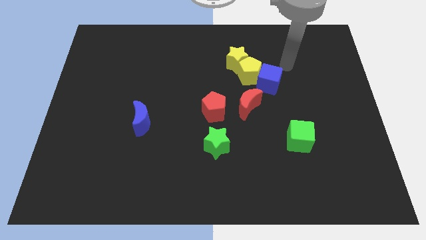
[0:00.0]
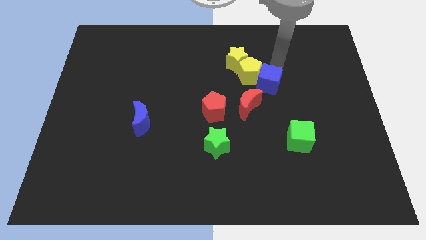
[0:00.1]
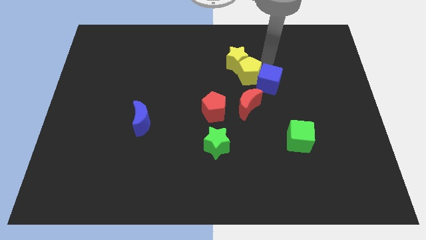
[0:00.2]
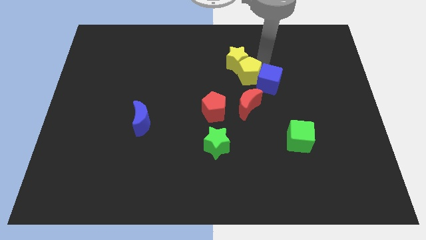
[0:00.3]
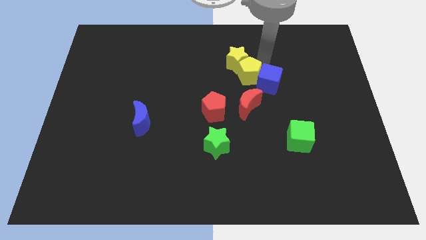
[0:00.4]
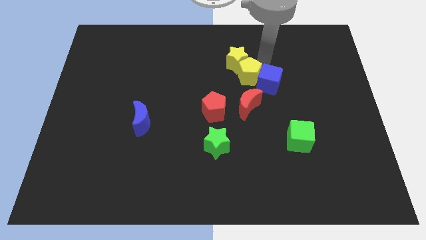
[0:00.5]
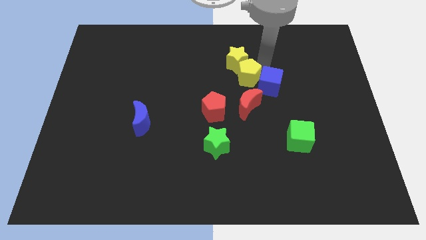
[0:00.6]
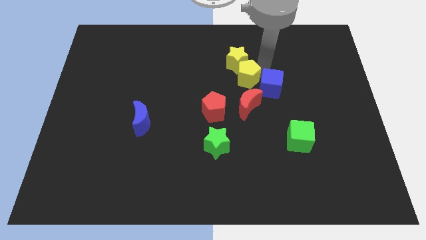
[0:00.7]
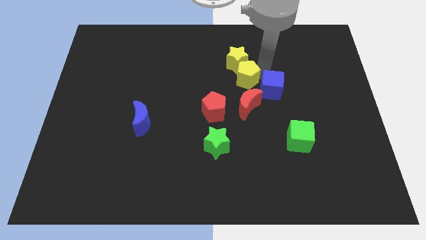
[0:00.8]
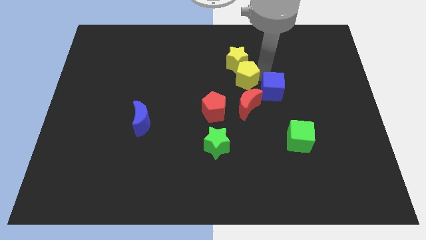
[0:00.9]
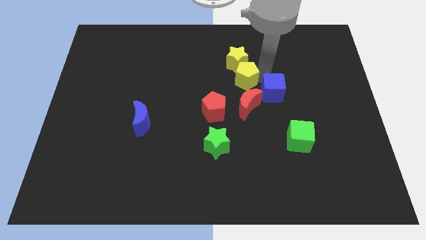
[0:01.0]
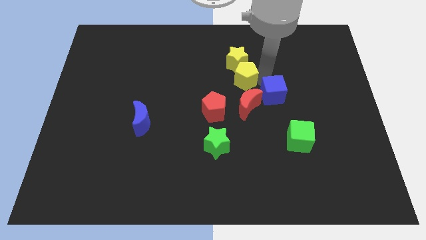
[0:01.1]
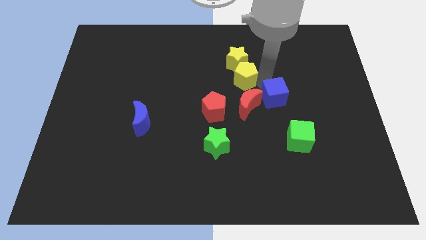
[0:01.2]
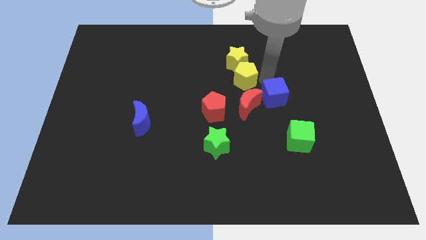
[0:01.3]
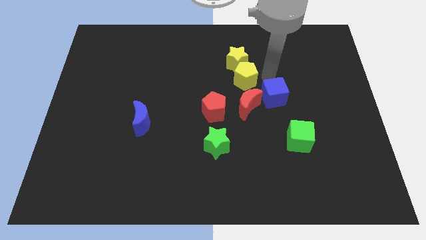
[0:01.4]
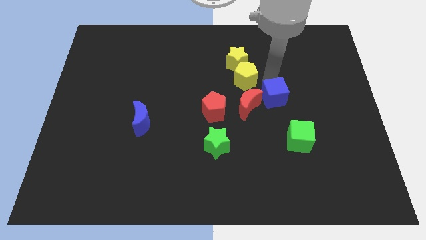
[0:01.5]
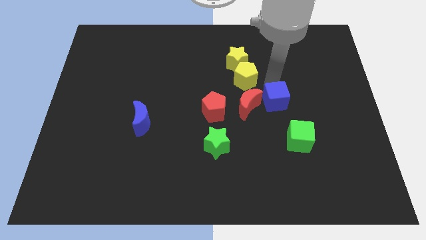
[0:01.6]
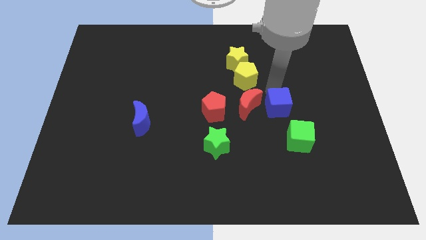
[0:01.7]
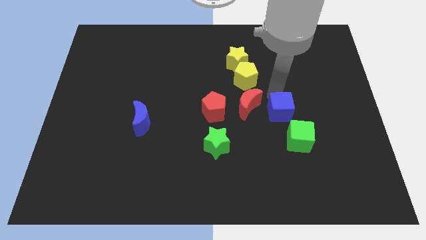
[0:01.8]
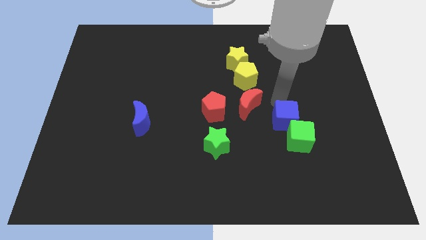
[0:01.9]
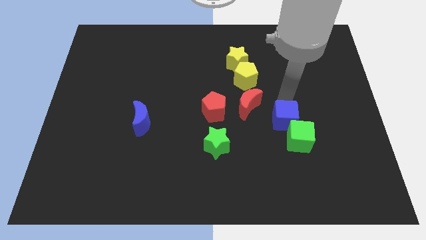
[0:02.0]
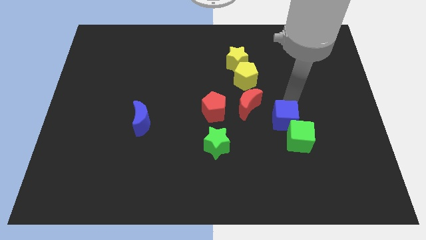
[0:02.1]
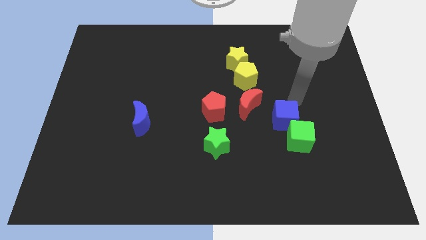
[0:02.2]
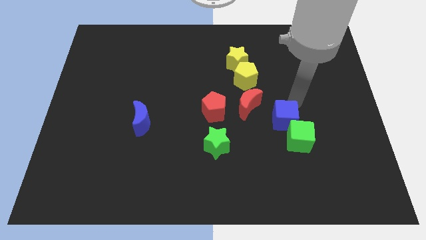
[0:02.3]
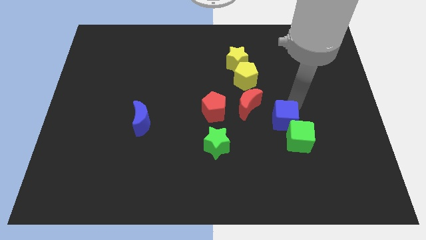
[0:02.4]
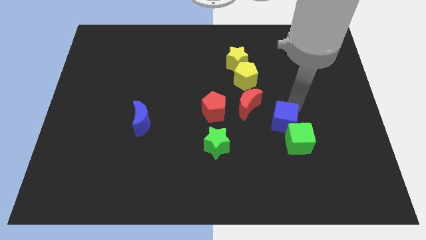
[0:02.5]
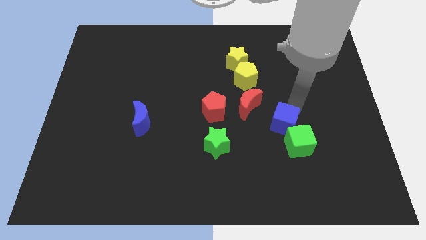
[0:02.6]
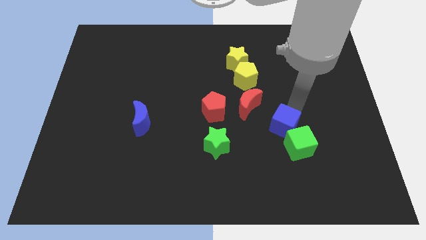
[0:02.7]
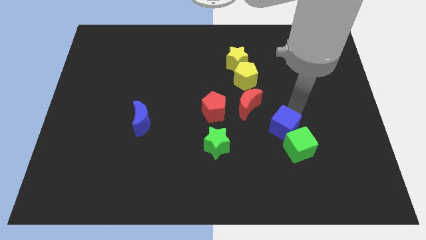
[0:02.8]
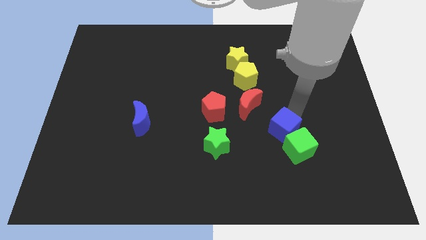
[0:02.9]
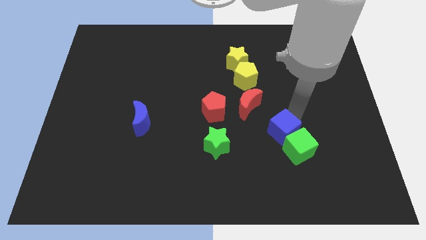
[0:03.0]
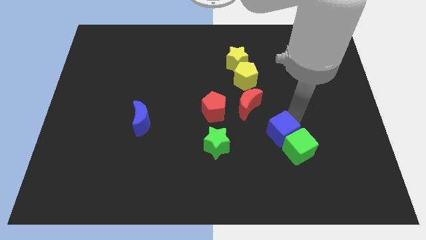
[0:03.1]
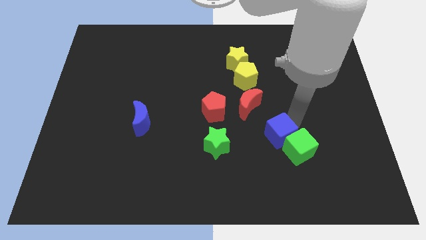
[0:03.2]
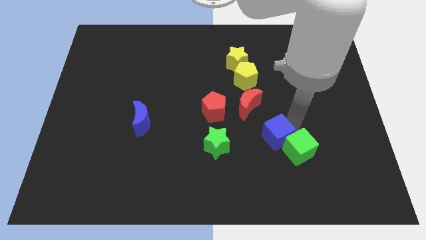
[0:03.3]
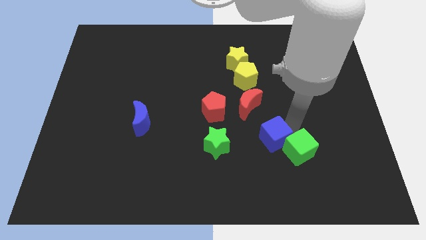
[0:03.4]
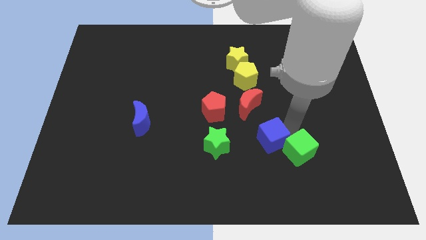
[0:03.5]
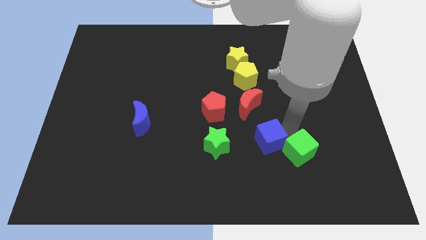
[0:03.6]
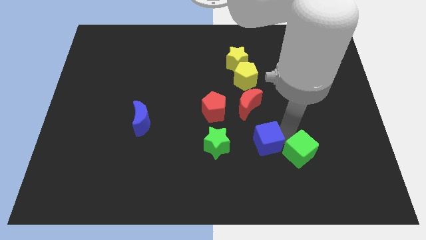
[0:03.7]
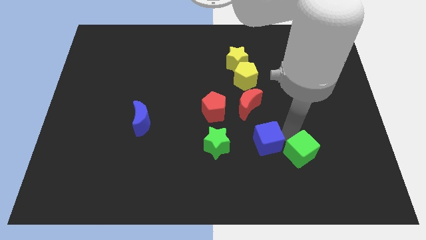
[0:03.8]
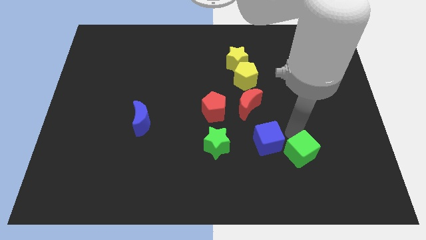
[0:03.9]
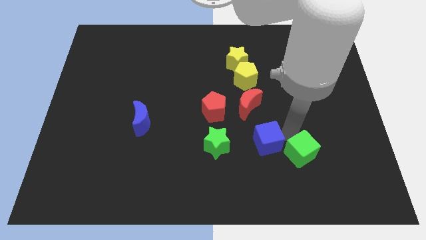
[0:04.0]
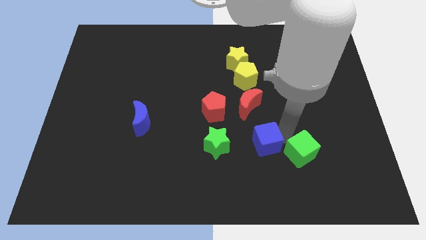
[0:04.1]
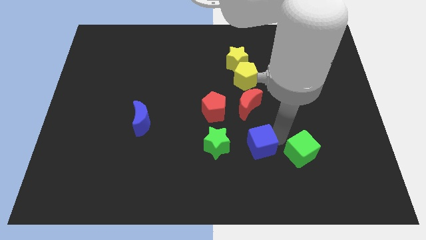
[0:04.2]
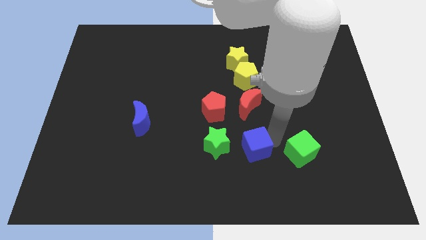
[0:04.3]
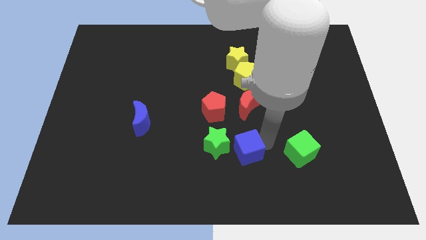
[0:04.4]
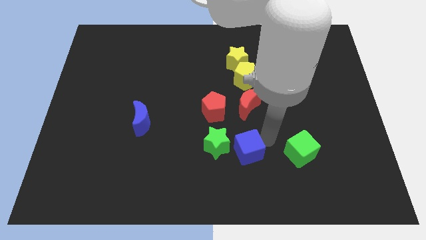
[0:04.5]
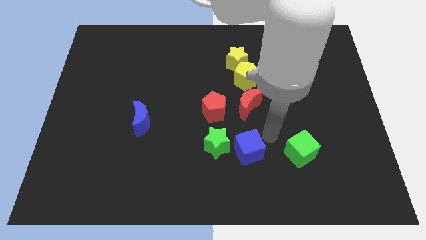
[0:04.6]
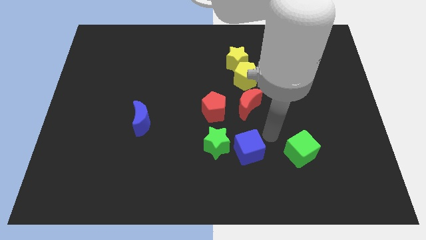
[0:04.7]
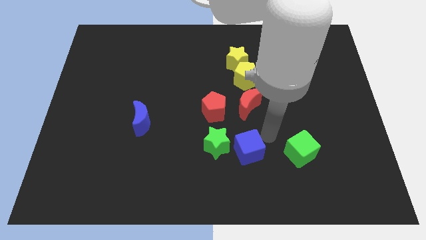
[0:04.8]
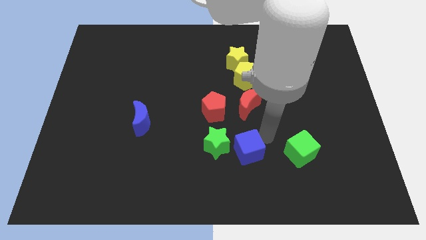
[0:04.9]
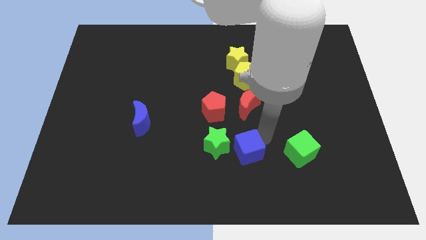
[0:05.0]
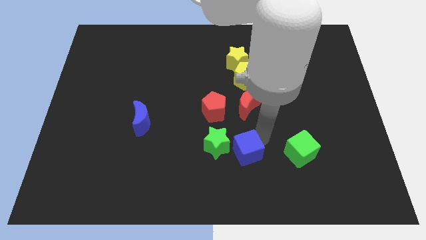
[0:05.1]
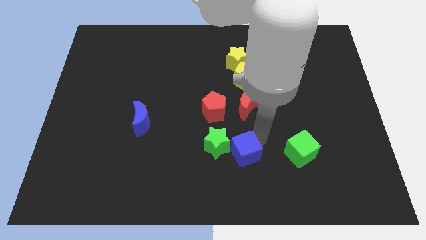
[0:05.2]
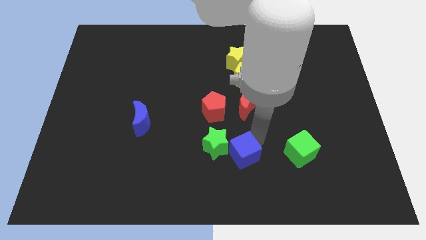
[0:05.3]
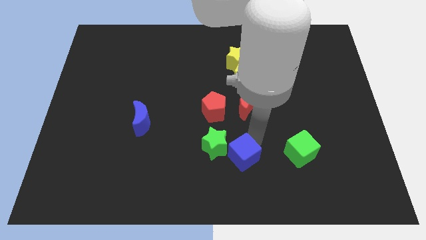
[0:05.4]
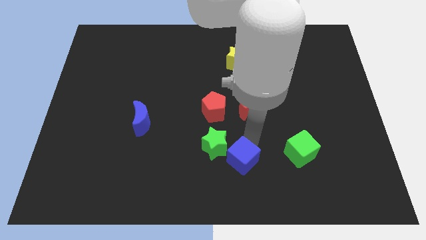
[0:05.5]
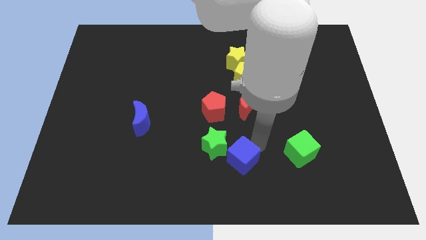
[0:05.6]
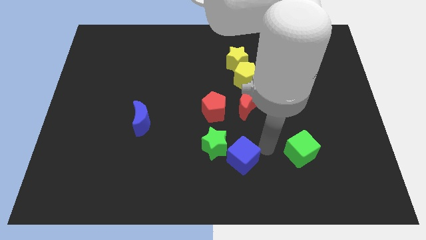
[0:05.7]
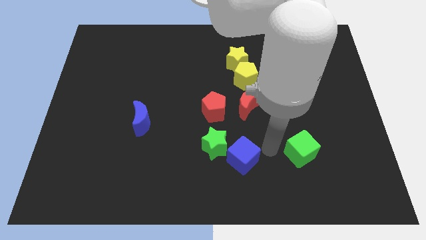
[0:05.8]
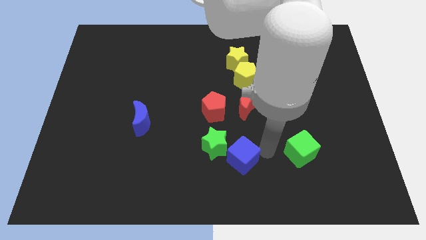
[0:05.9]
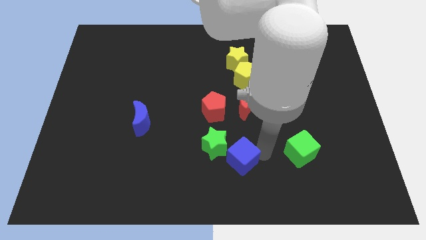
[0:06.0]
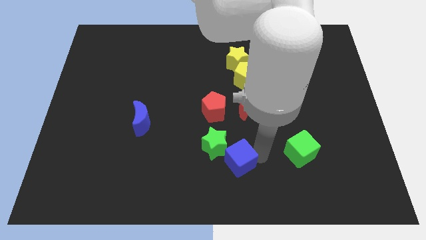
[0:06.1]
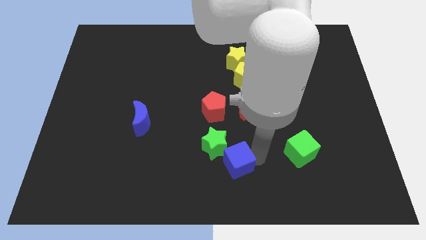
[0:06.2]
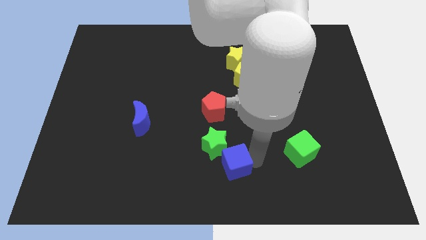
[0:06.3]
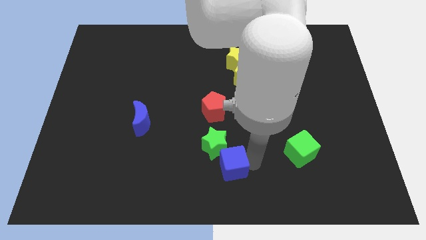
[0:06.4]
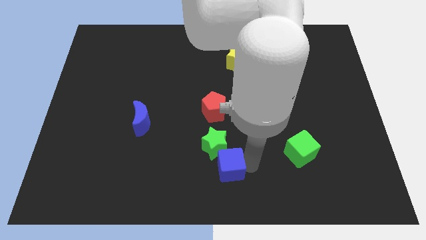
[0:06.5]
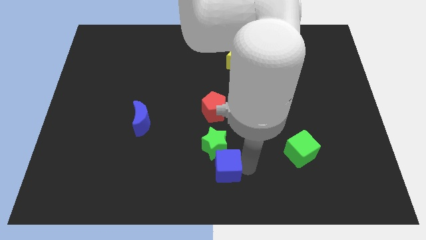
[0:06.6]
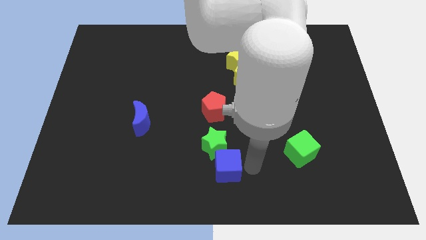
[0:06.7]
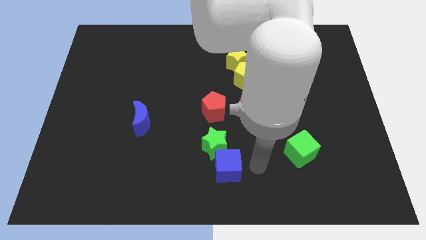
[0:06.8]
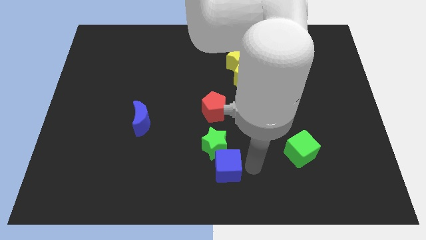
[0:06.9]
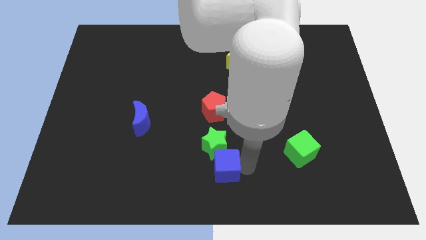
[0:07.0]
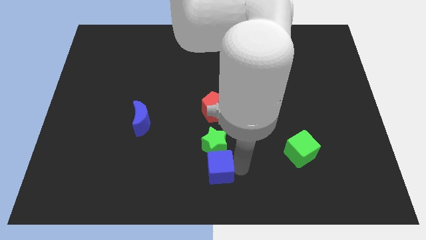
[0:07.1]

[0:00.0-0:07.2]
put the blue cube to the bottom left of the green star

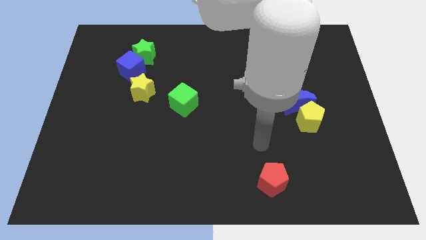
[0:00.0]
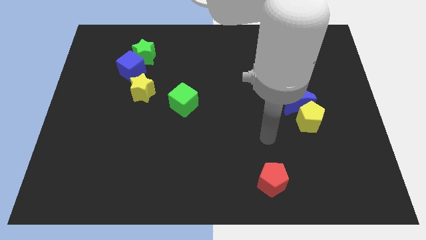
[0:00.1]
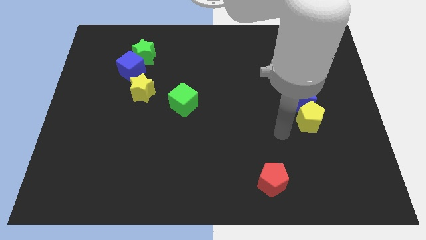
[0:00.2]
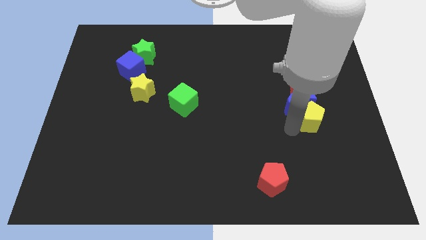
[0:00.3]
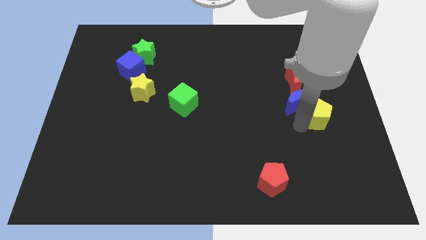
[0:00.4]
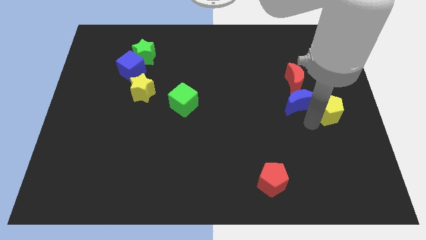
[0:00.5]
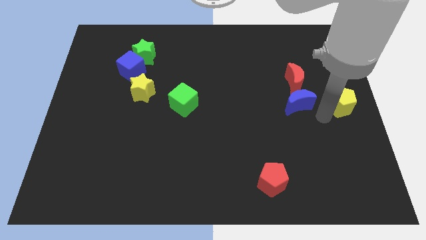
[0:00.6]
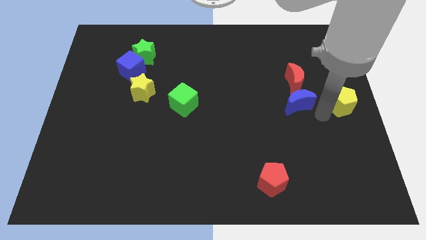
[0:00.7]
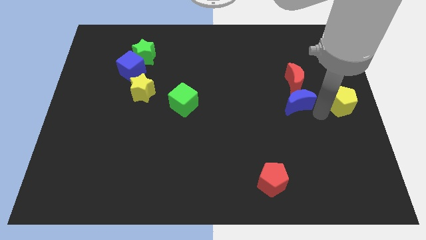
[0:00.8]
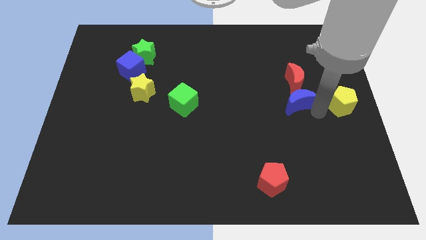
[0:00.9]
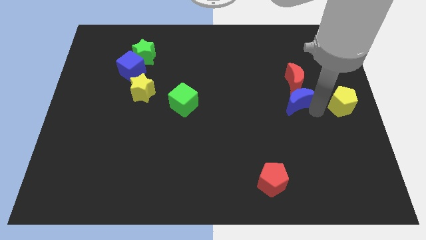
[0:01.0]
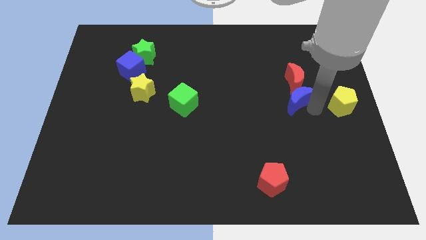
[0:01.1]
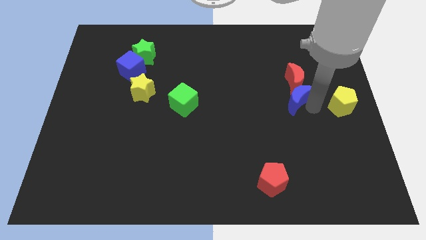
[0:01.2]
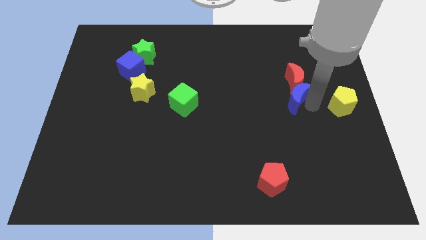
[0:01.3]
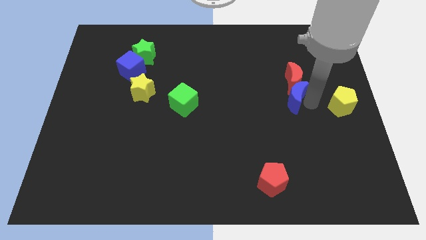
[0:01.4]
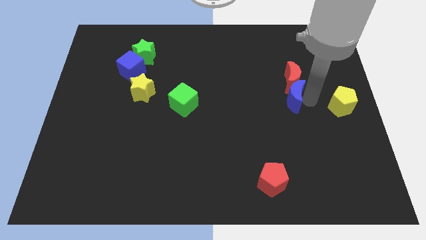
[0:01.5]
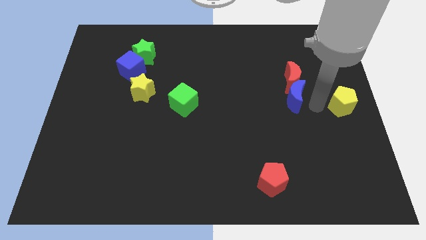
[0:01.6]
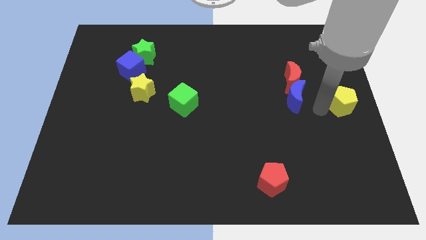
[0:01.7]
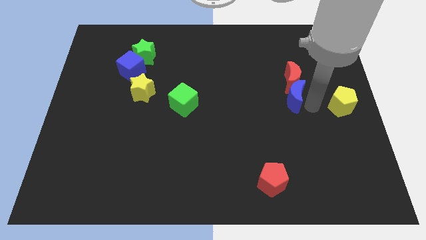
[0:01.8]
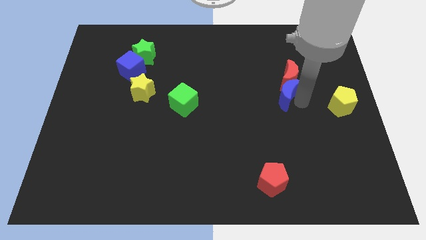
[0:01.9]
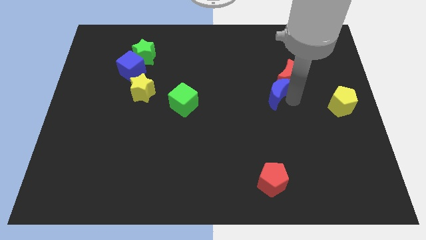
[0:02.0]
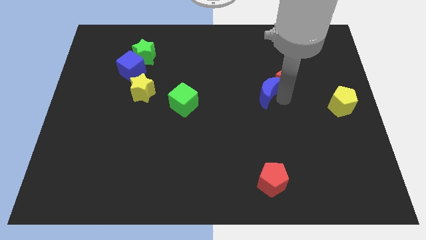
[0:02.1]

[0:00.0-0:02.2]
slide the blue moon just left of the red moon
